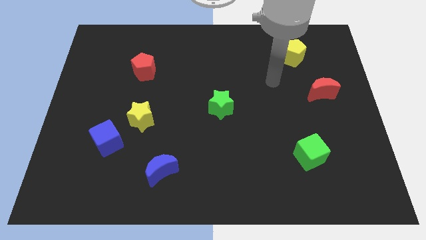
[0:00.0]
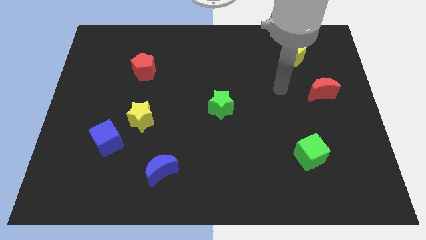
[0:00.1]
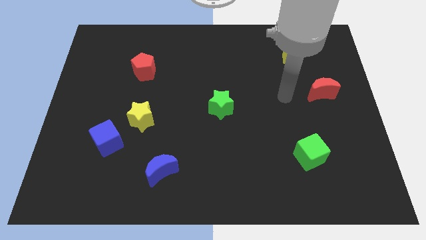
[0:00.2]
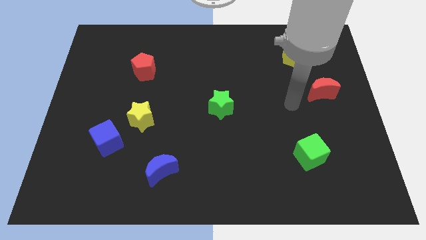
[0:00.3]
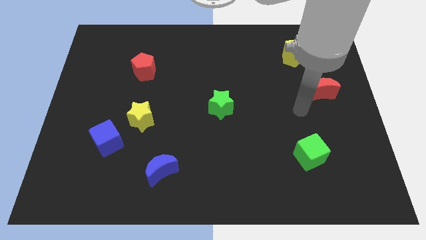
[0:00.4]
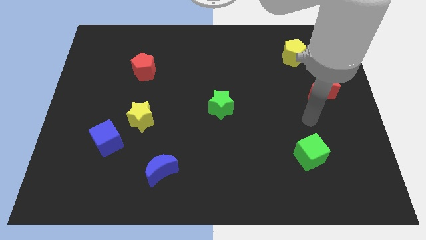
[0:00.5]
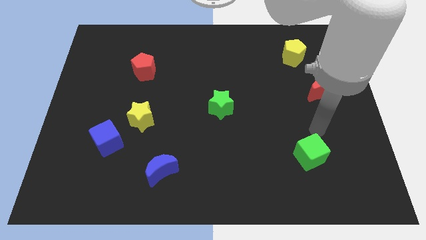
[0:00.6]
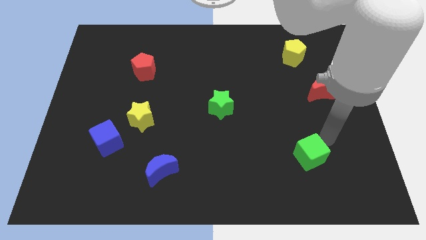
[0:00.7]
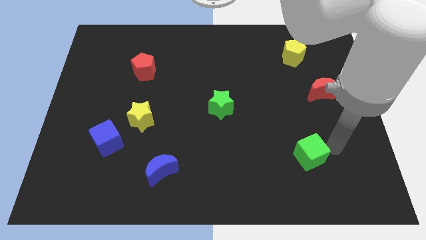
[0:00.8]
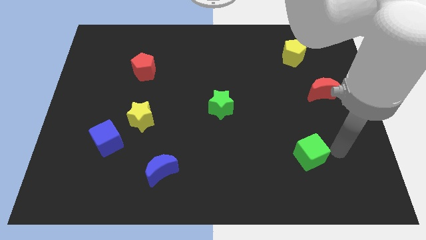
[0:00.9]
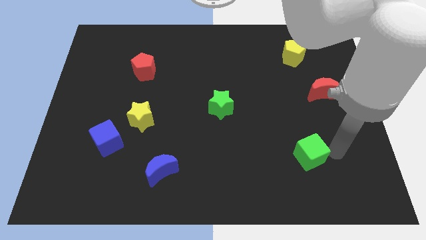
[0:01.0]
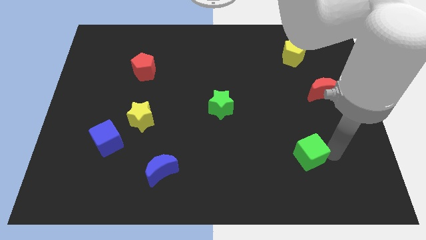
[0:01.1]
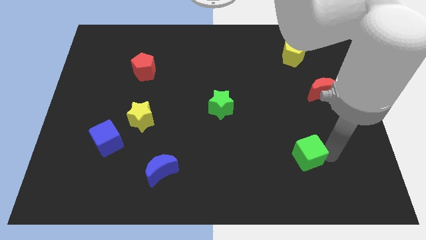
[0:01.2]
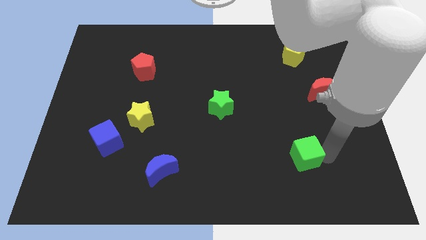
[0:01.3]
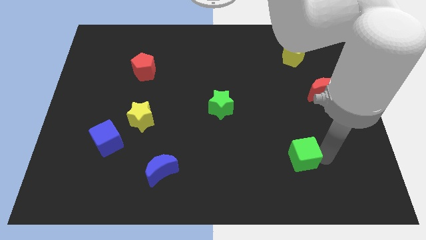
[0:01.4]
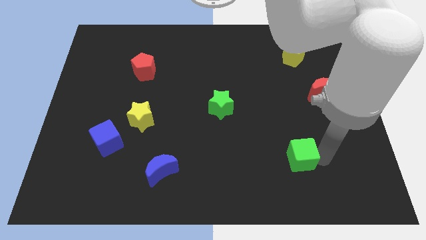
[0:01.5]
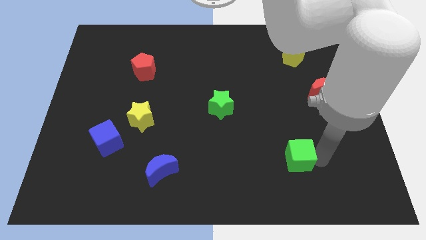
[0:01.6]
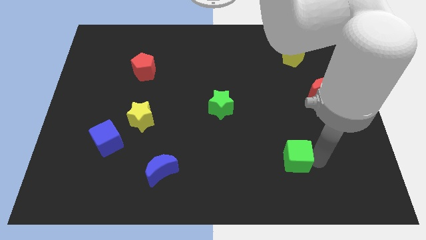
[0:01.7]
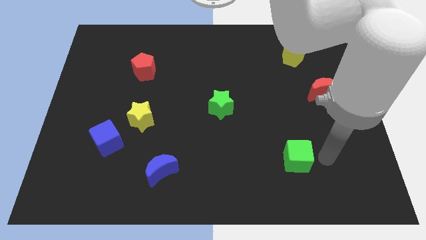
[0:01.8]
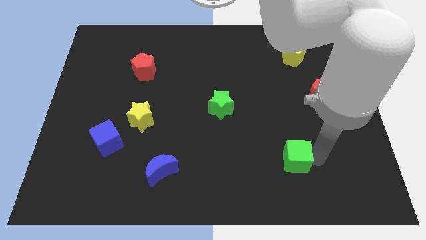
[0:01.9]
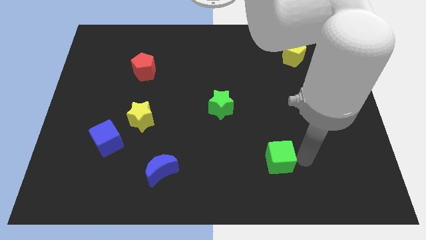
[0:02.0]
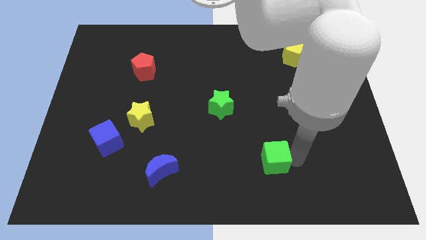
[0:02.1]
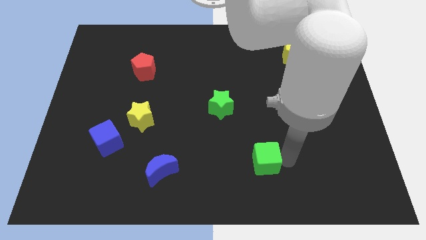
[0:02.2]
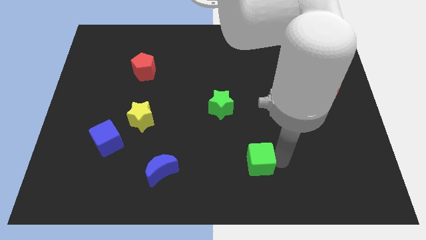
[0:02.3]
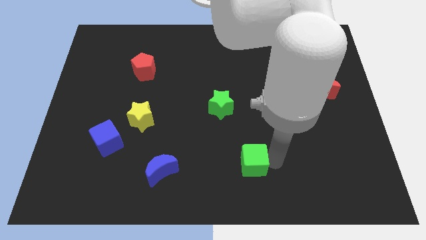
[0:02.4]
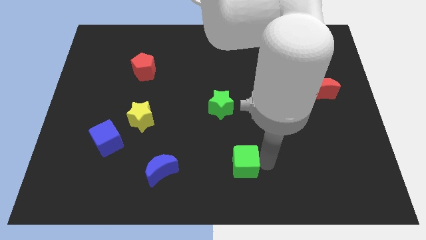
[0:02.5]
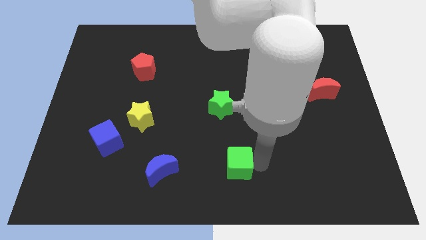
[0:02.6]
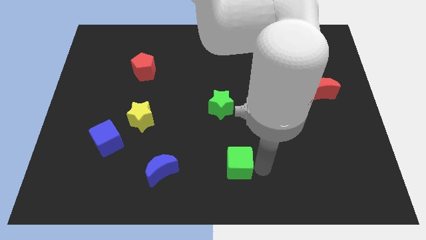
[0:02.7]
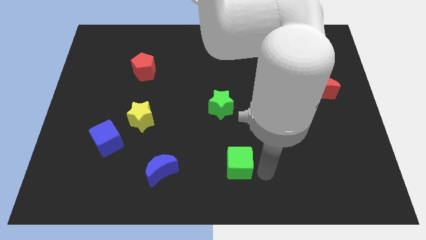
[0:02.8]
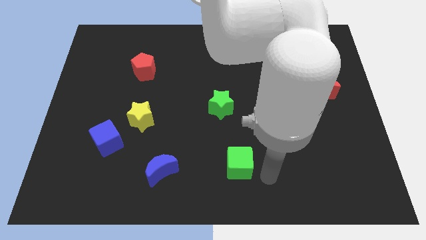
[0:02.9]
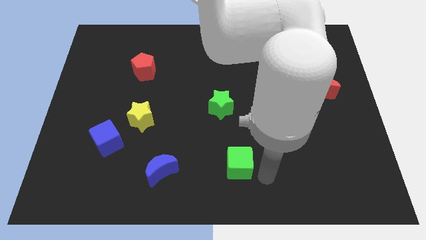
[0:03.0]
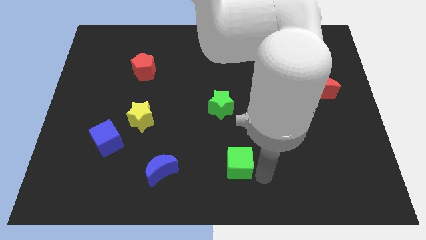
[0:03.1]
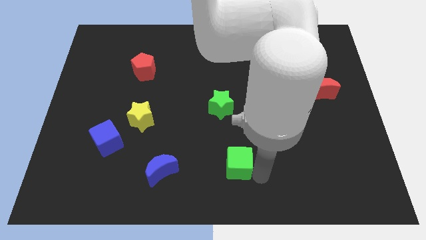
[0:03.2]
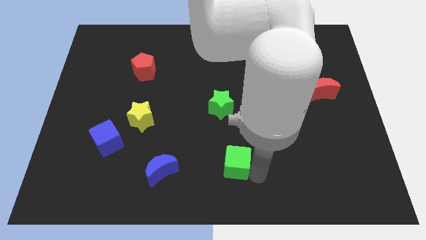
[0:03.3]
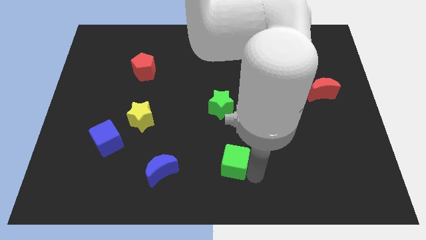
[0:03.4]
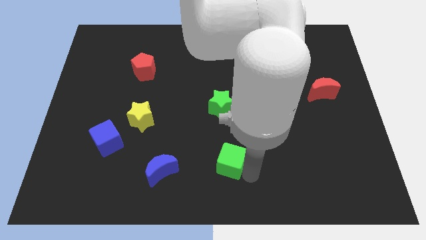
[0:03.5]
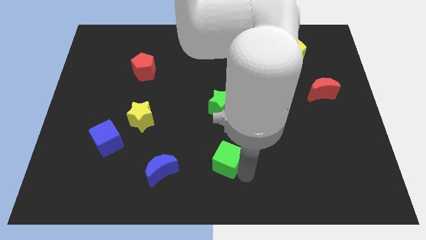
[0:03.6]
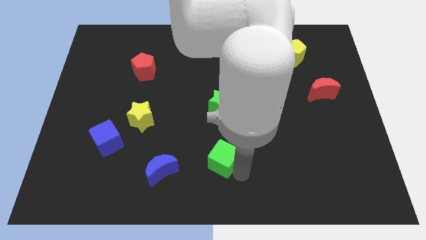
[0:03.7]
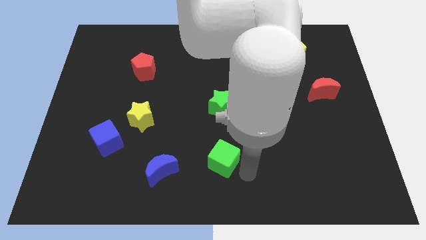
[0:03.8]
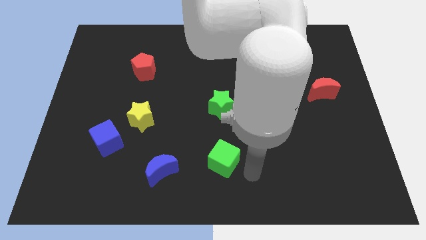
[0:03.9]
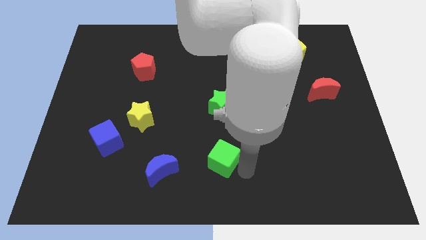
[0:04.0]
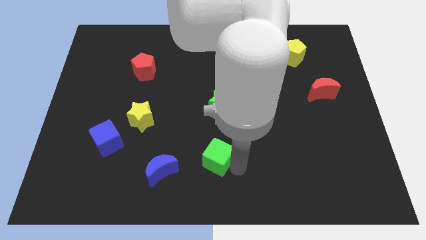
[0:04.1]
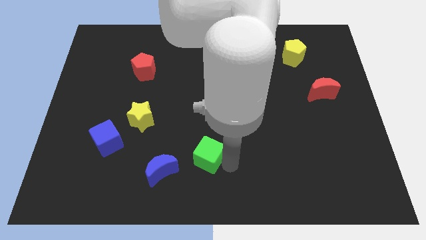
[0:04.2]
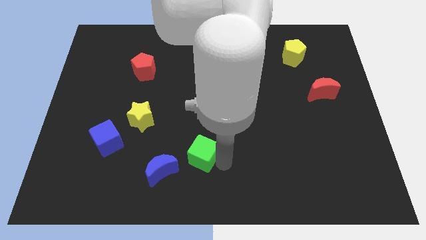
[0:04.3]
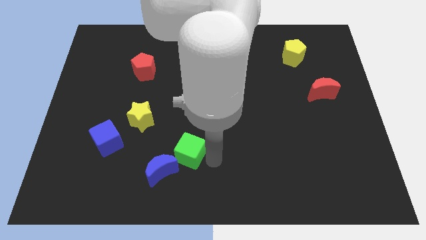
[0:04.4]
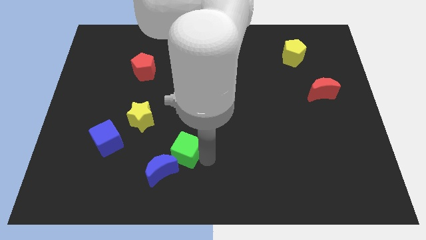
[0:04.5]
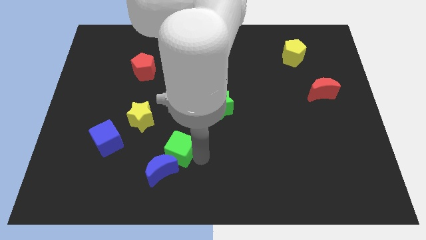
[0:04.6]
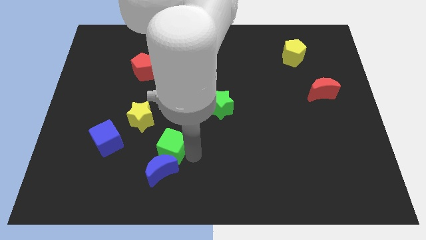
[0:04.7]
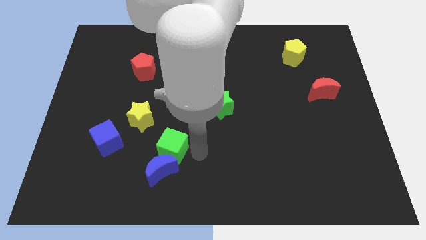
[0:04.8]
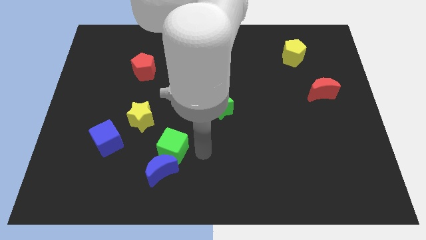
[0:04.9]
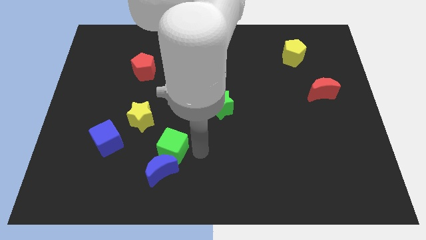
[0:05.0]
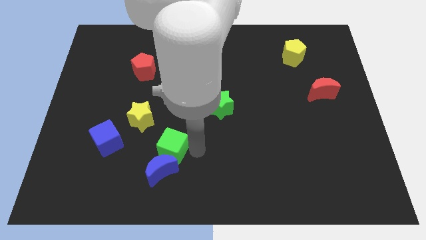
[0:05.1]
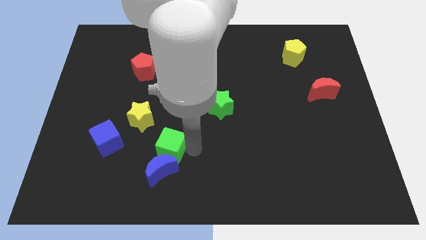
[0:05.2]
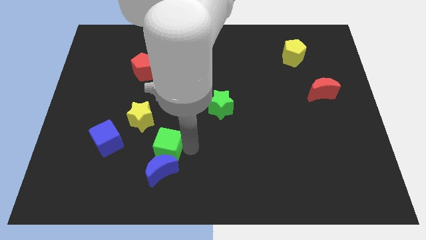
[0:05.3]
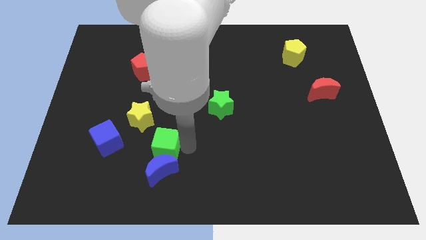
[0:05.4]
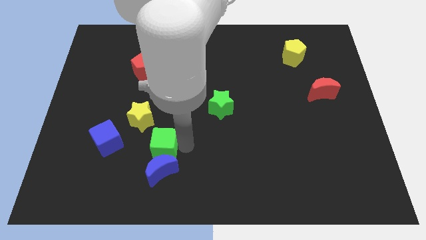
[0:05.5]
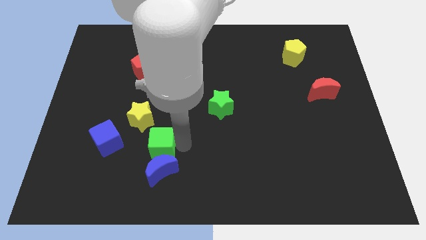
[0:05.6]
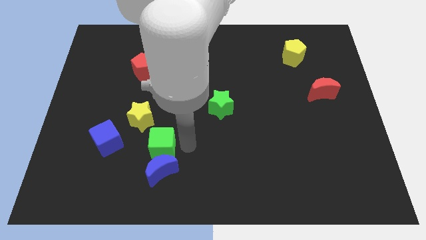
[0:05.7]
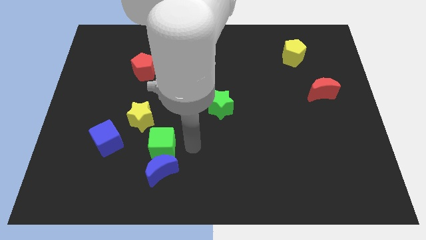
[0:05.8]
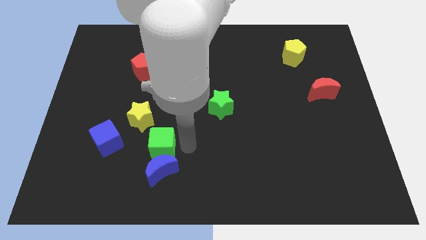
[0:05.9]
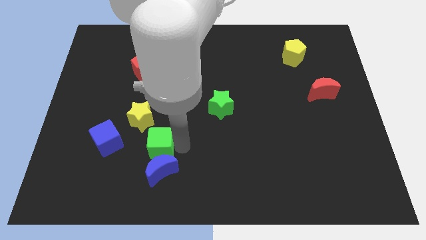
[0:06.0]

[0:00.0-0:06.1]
put the green cube to the bottom side of the yellow star

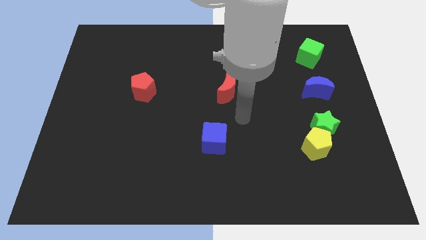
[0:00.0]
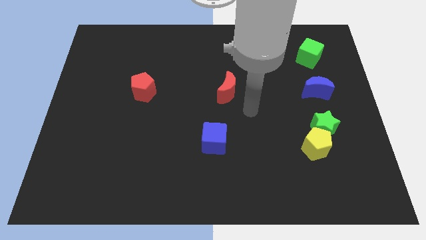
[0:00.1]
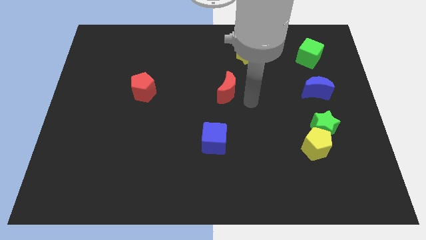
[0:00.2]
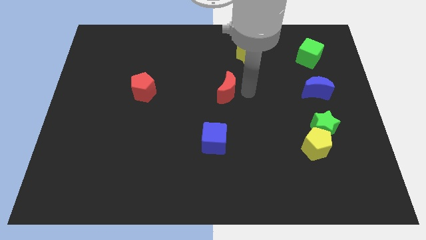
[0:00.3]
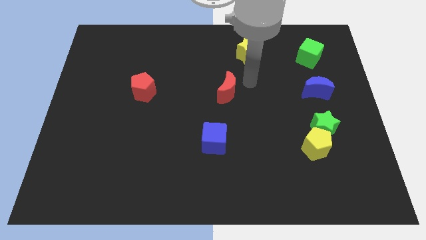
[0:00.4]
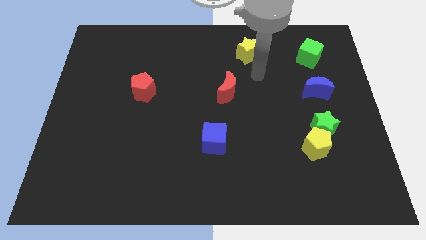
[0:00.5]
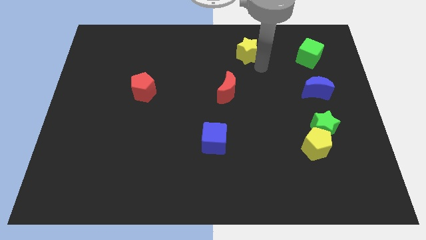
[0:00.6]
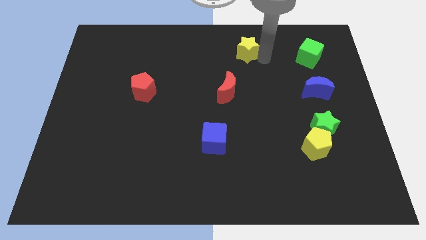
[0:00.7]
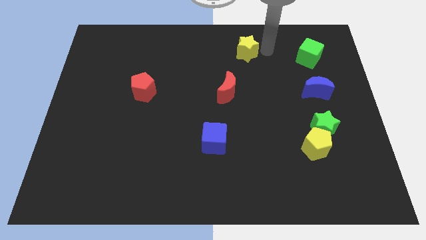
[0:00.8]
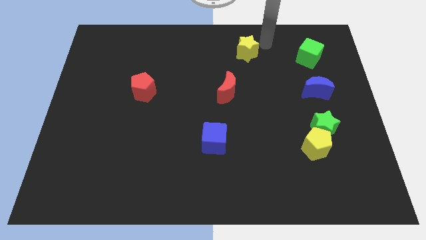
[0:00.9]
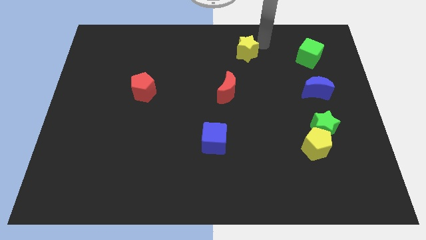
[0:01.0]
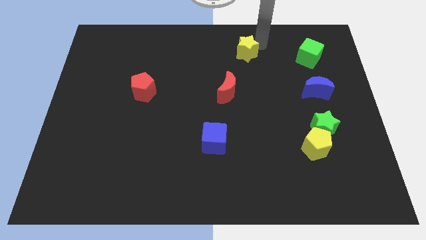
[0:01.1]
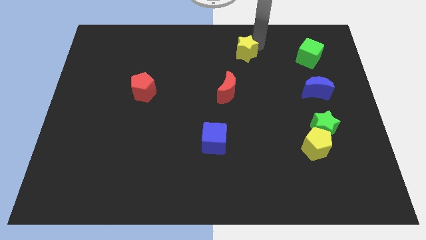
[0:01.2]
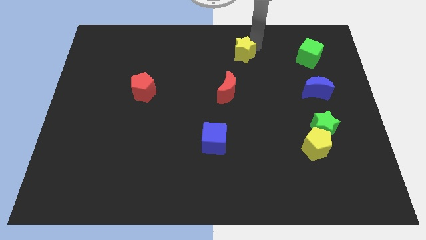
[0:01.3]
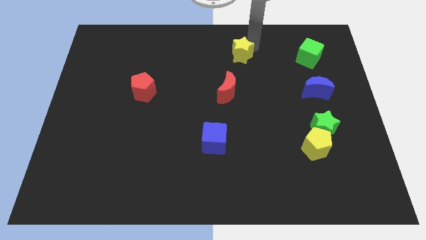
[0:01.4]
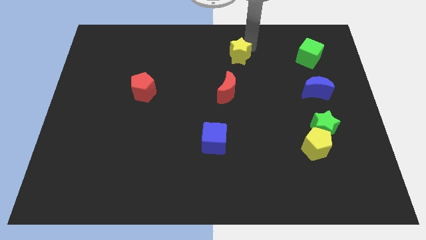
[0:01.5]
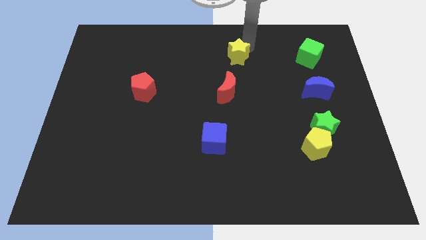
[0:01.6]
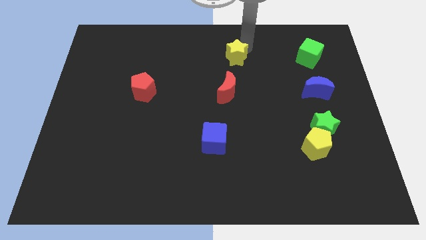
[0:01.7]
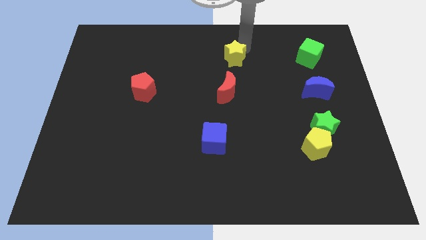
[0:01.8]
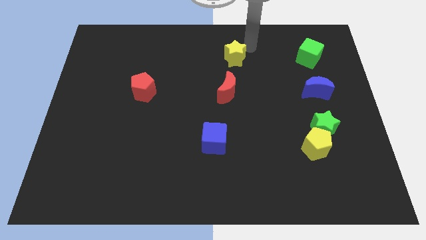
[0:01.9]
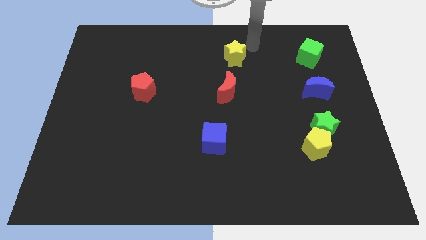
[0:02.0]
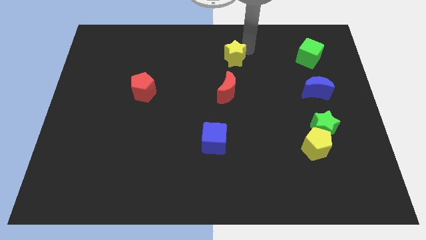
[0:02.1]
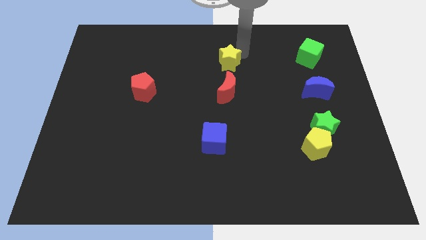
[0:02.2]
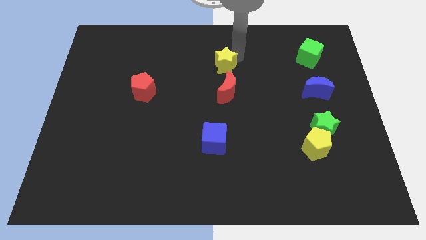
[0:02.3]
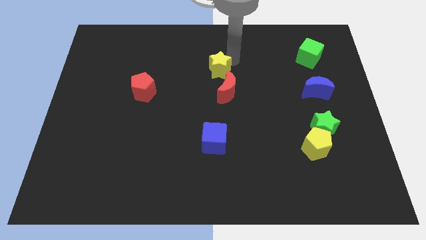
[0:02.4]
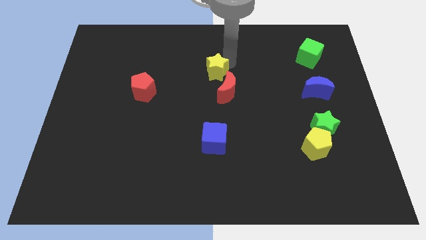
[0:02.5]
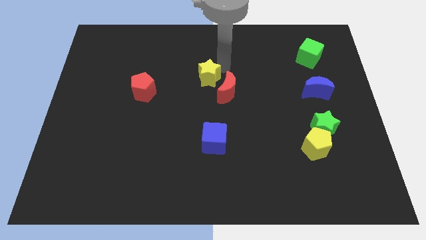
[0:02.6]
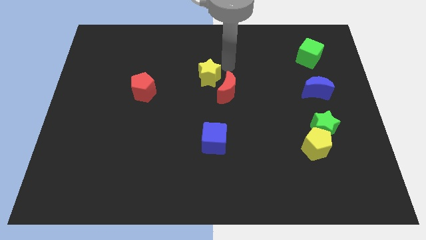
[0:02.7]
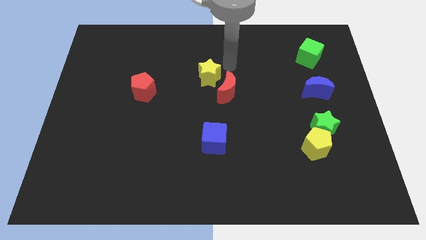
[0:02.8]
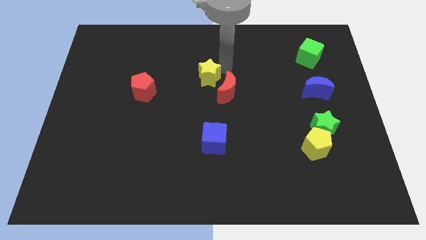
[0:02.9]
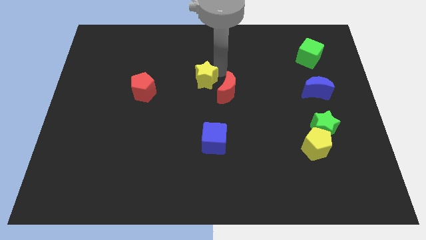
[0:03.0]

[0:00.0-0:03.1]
move the yellow star just right of the red pentagon
